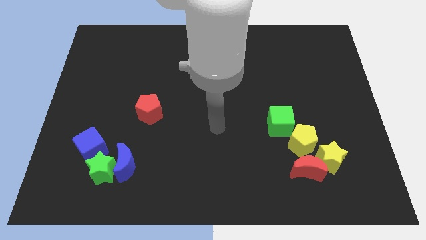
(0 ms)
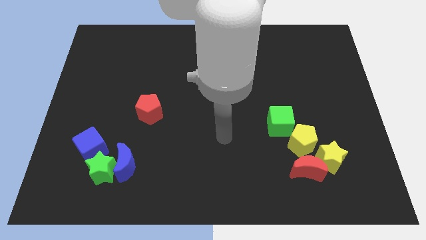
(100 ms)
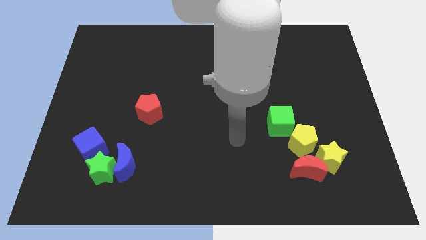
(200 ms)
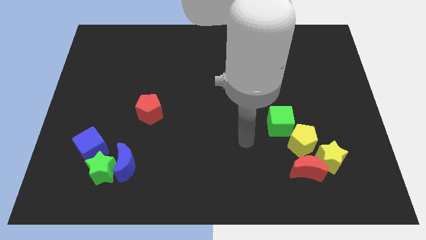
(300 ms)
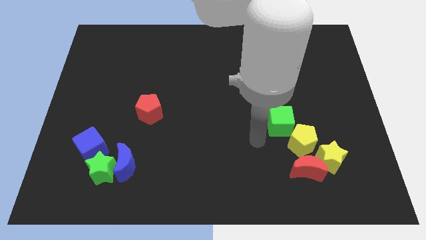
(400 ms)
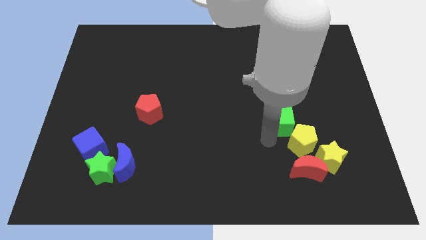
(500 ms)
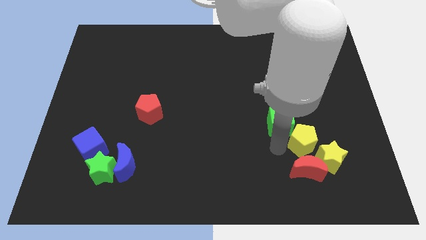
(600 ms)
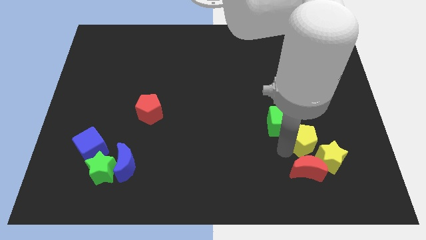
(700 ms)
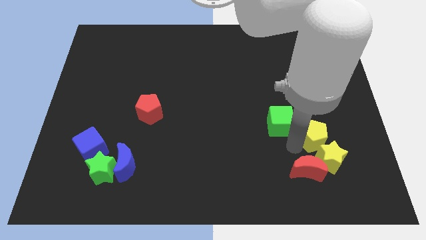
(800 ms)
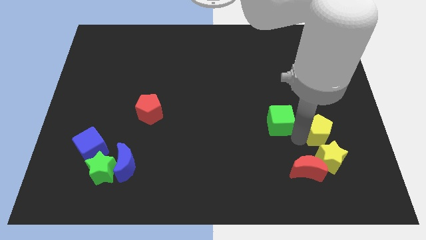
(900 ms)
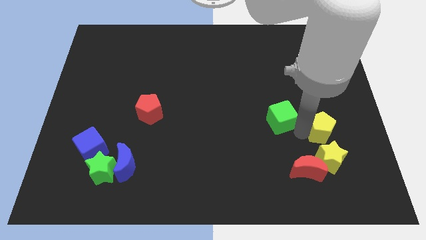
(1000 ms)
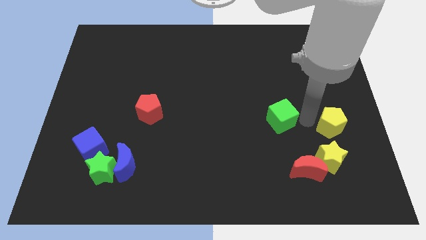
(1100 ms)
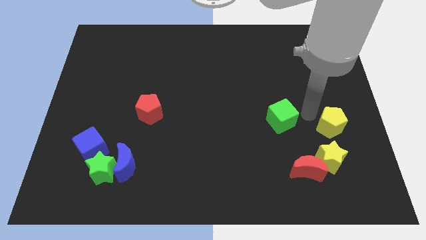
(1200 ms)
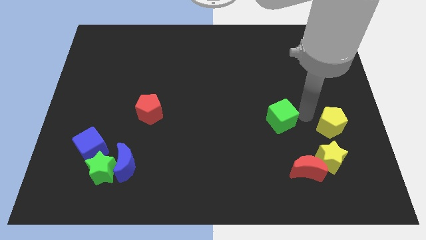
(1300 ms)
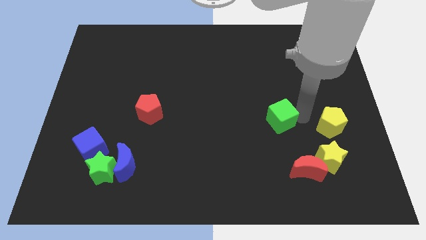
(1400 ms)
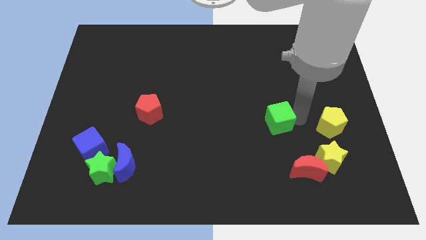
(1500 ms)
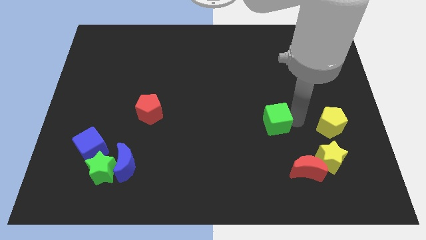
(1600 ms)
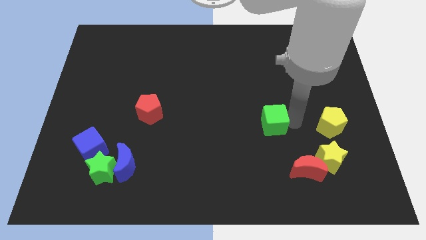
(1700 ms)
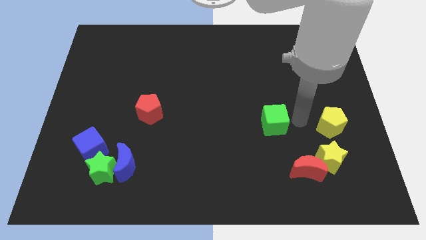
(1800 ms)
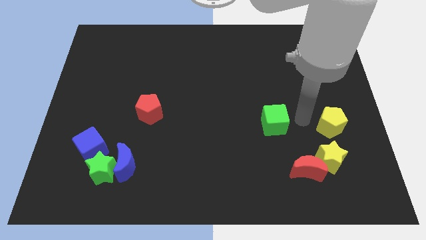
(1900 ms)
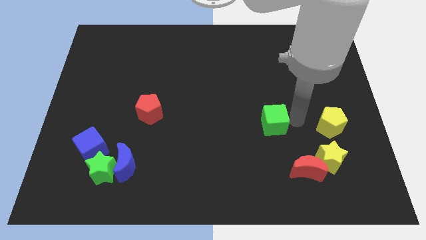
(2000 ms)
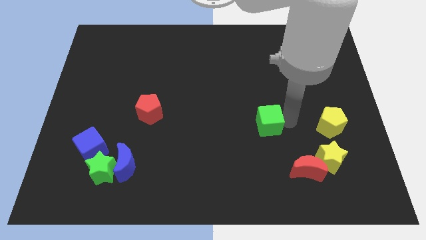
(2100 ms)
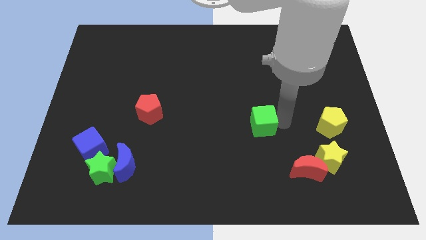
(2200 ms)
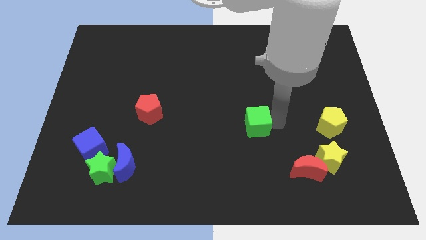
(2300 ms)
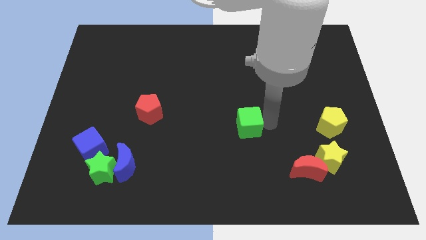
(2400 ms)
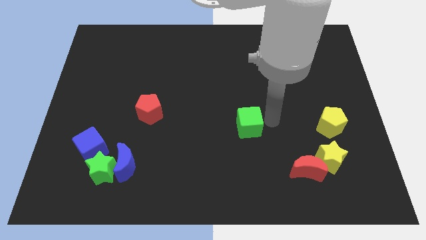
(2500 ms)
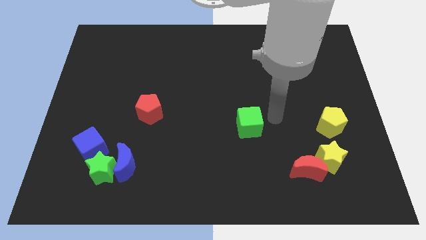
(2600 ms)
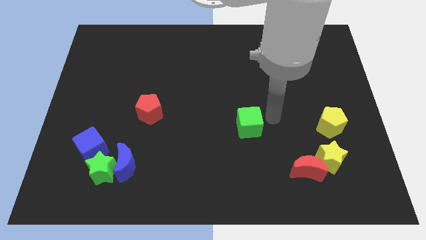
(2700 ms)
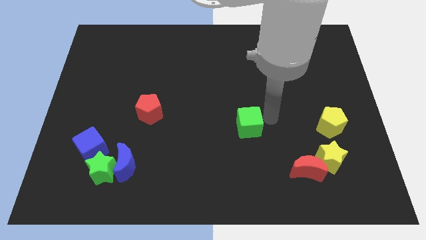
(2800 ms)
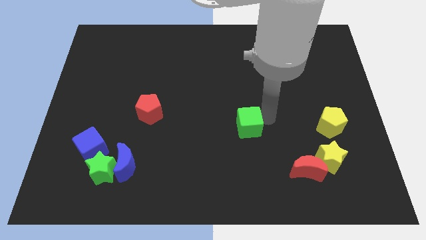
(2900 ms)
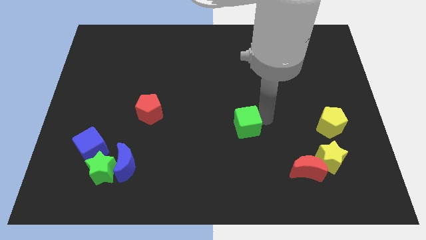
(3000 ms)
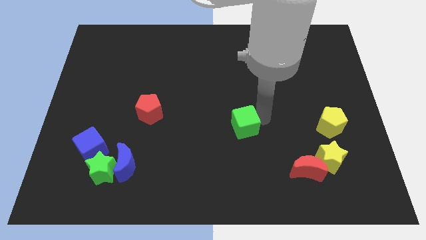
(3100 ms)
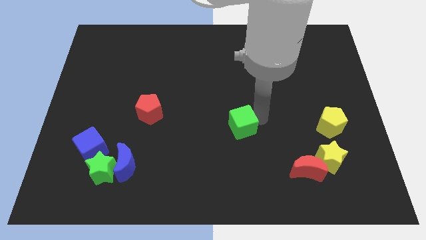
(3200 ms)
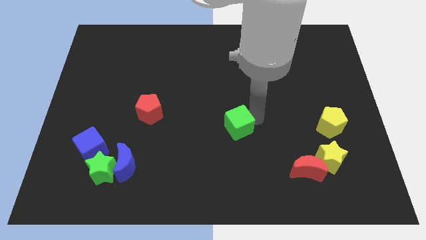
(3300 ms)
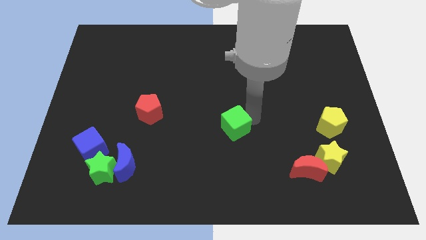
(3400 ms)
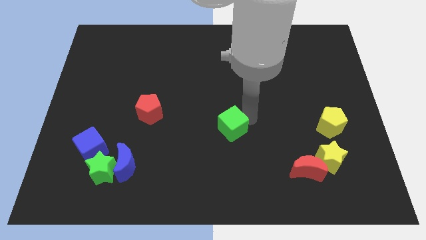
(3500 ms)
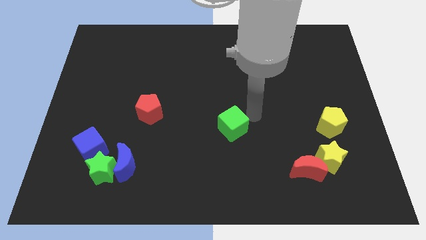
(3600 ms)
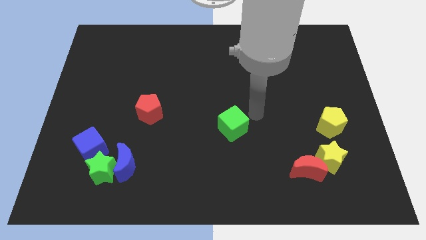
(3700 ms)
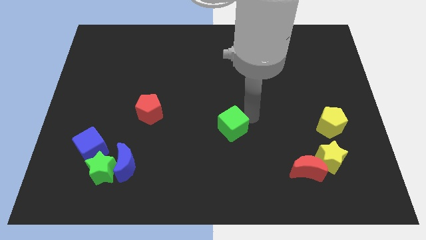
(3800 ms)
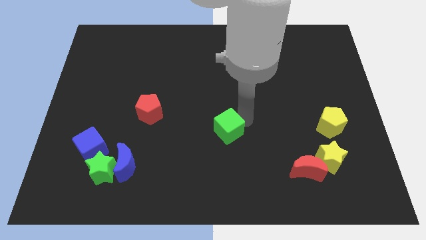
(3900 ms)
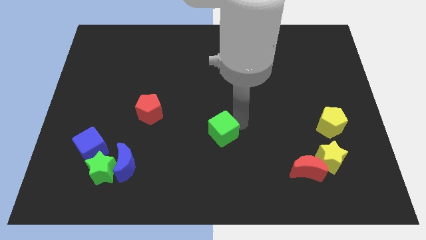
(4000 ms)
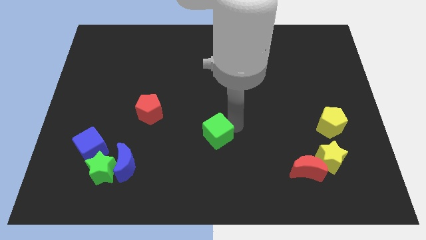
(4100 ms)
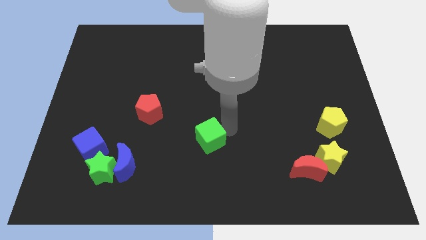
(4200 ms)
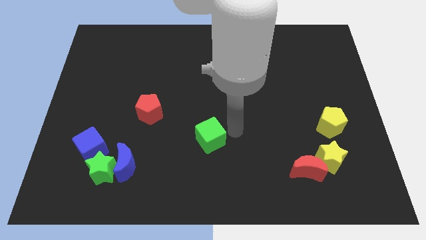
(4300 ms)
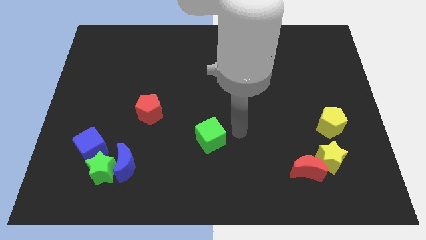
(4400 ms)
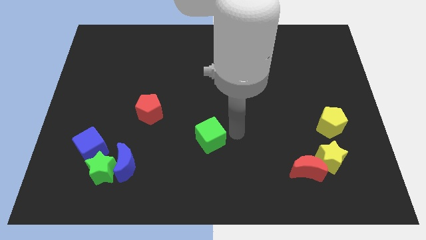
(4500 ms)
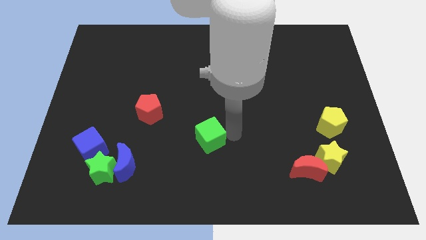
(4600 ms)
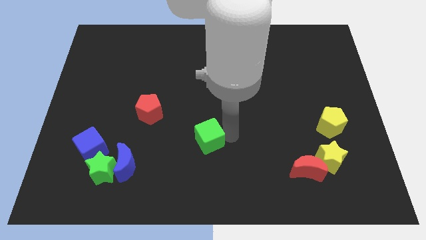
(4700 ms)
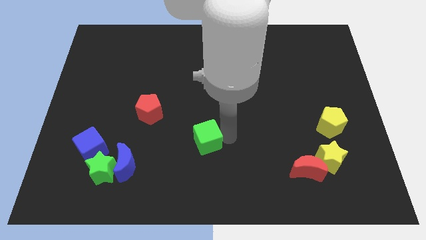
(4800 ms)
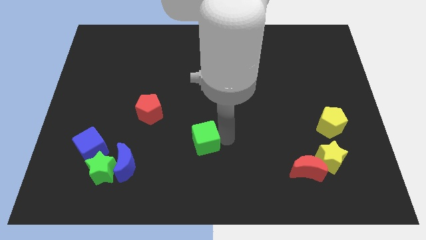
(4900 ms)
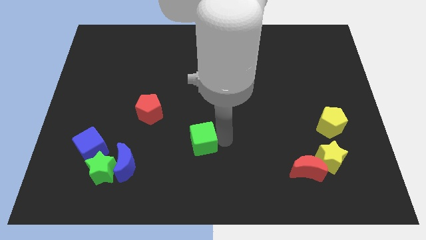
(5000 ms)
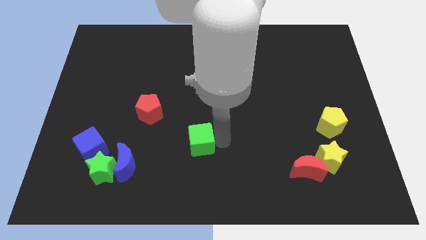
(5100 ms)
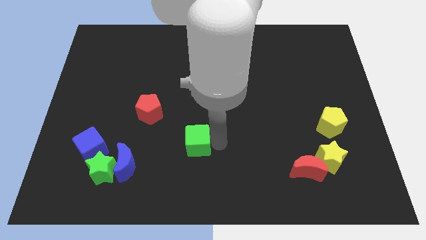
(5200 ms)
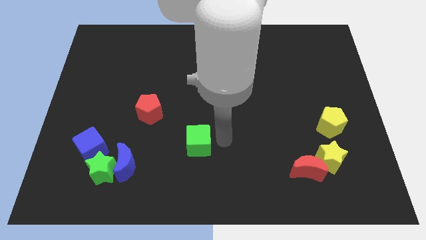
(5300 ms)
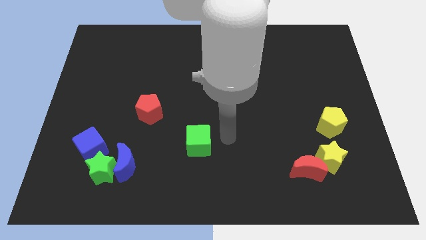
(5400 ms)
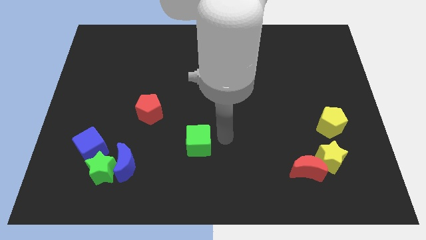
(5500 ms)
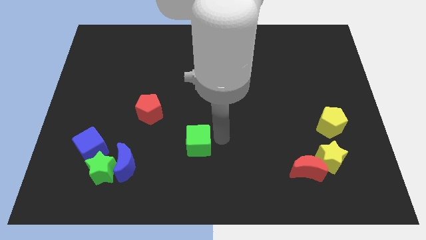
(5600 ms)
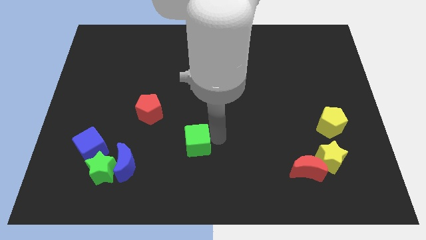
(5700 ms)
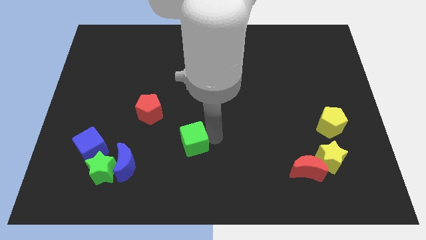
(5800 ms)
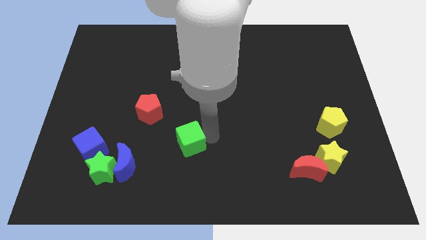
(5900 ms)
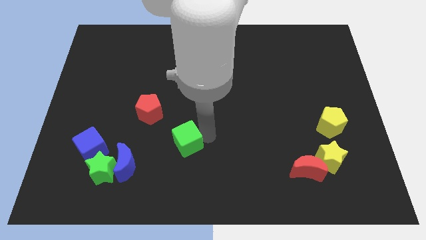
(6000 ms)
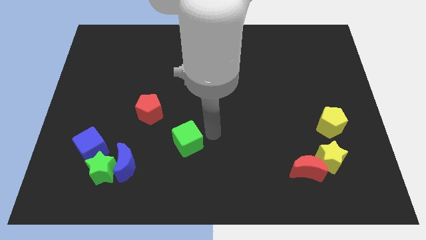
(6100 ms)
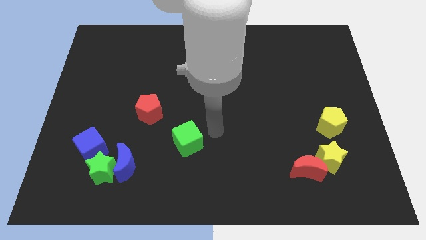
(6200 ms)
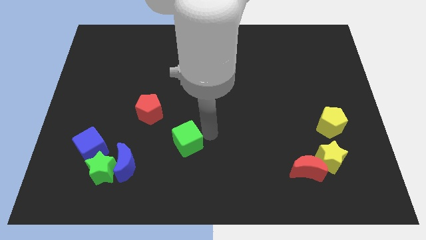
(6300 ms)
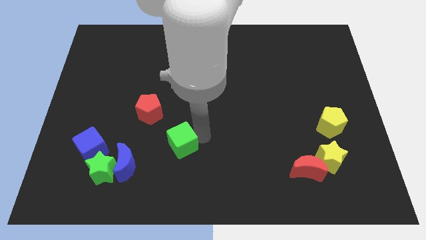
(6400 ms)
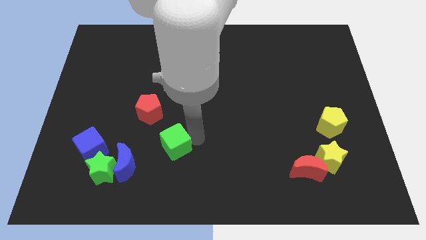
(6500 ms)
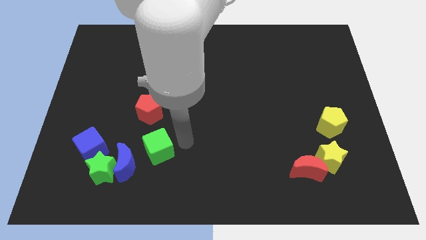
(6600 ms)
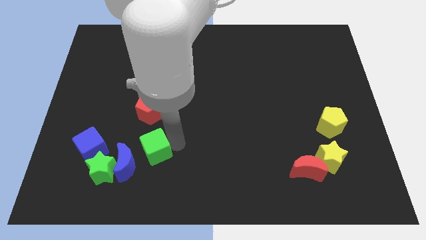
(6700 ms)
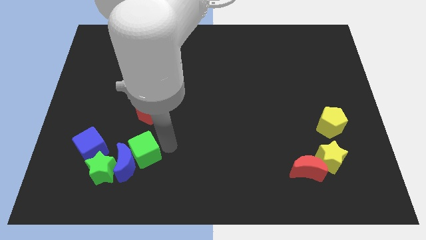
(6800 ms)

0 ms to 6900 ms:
slide the green cube next to the blue moon
